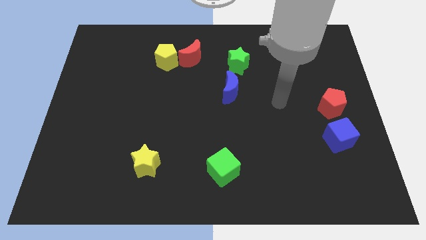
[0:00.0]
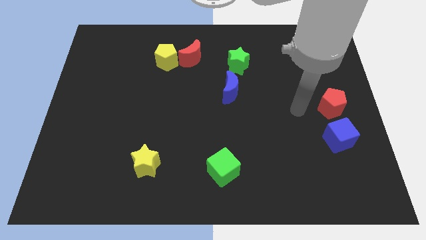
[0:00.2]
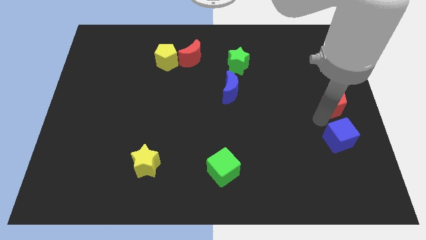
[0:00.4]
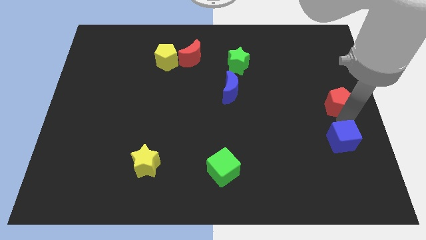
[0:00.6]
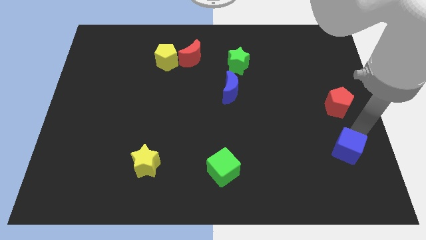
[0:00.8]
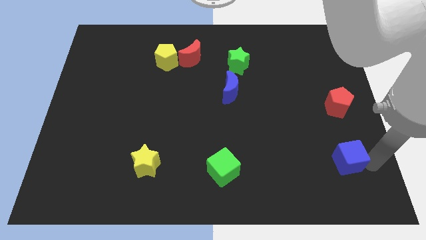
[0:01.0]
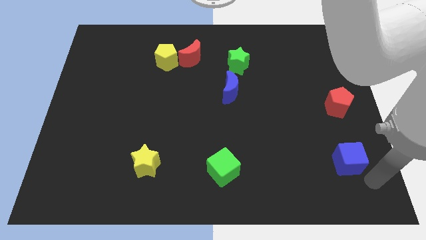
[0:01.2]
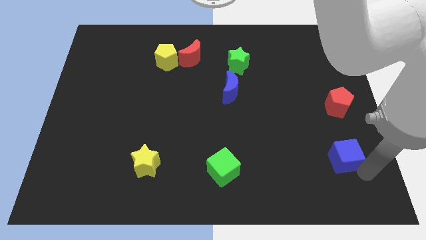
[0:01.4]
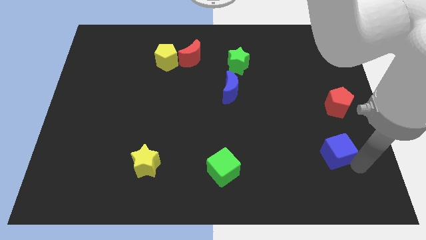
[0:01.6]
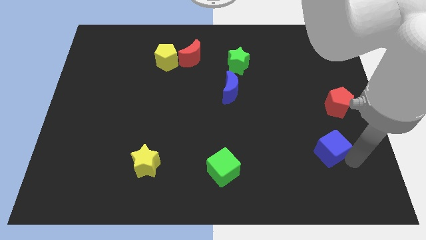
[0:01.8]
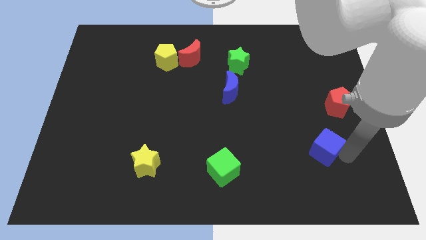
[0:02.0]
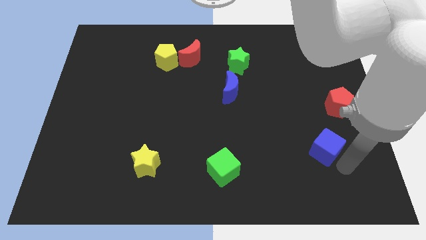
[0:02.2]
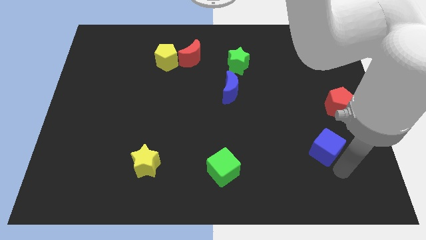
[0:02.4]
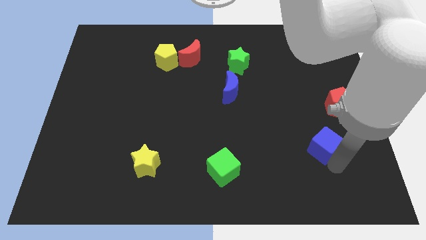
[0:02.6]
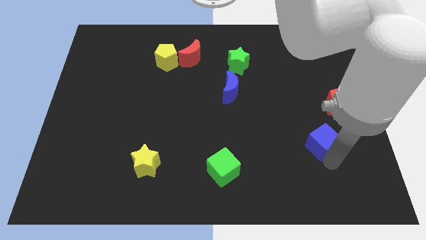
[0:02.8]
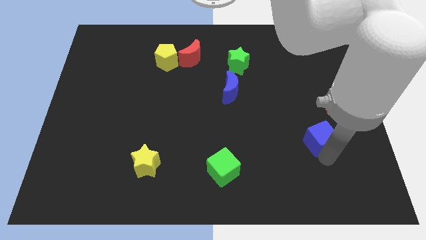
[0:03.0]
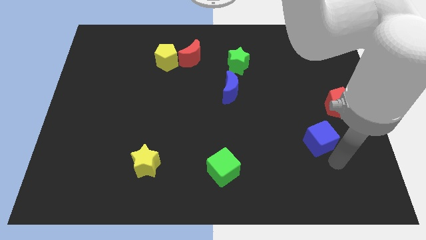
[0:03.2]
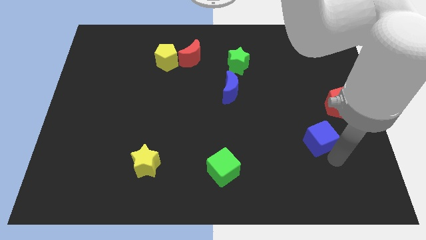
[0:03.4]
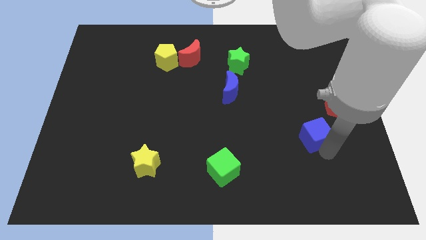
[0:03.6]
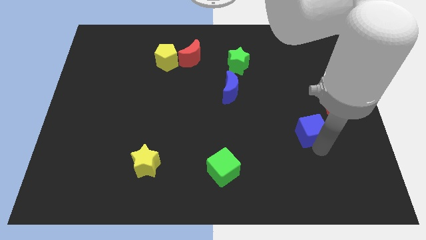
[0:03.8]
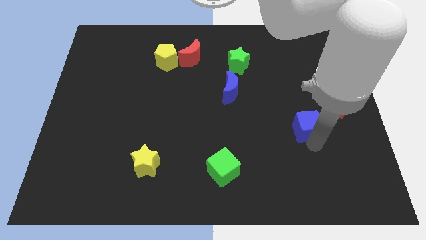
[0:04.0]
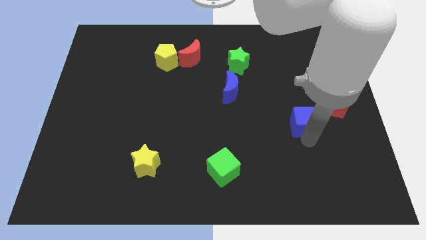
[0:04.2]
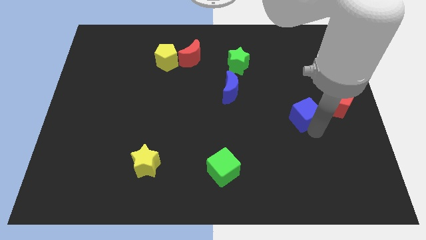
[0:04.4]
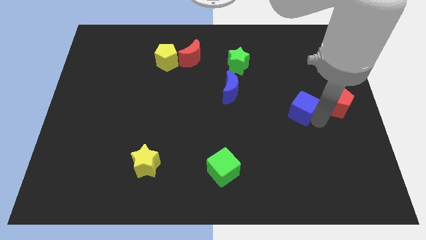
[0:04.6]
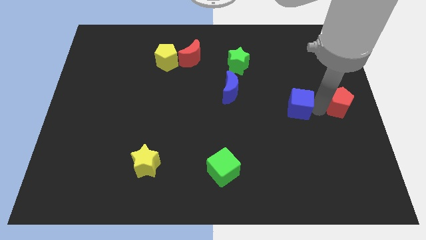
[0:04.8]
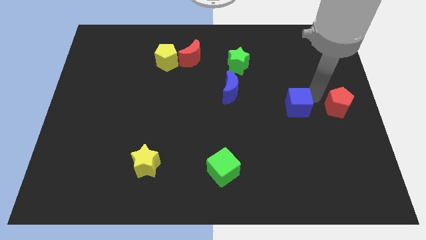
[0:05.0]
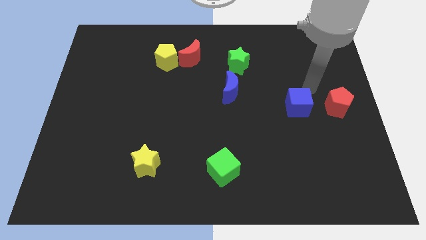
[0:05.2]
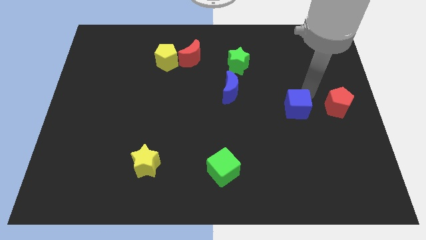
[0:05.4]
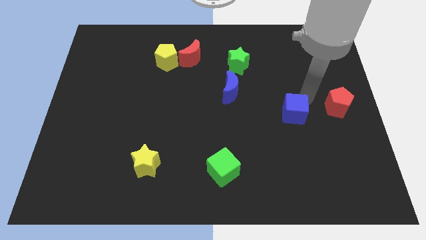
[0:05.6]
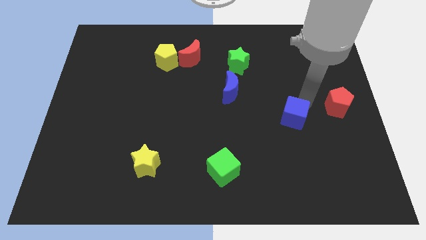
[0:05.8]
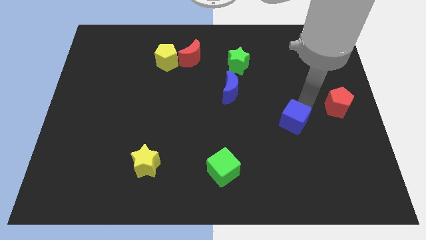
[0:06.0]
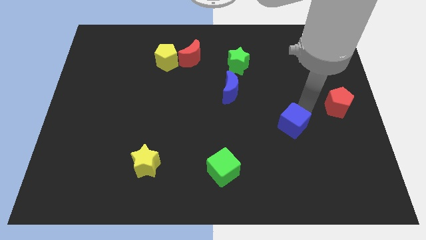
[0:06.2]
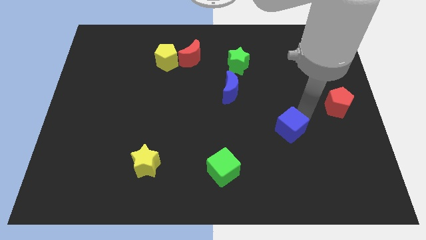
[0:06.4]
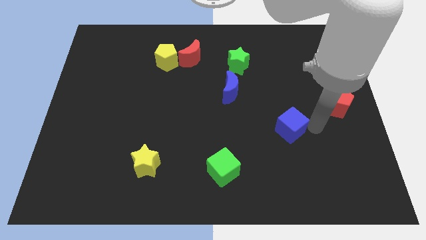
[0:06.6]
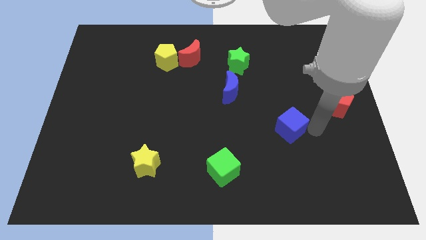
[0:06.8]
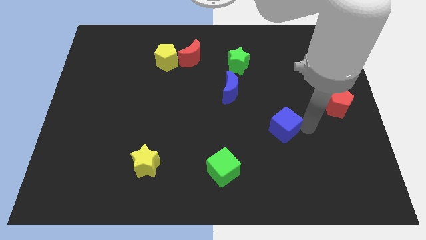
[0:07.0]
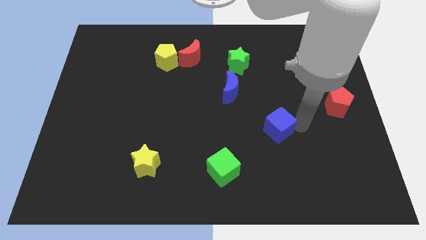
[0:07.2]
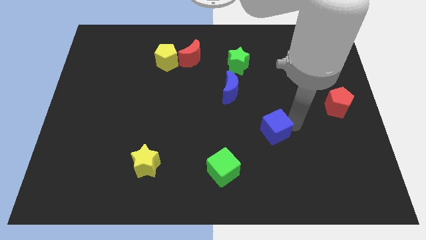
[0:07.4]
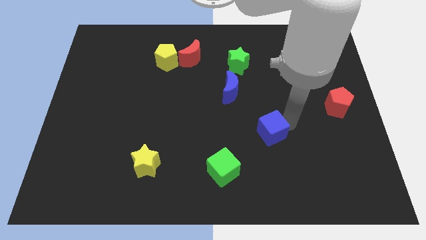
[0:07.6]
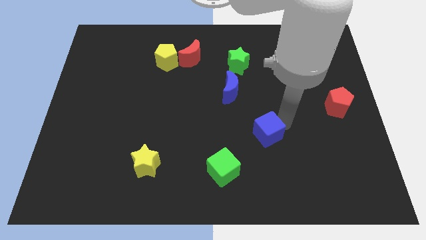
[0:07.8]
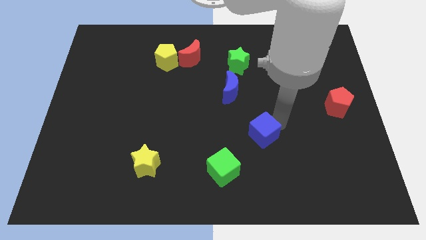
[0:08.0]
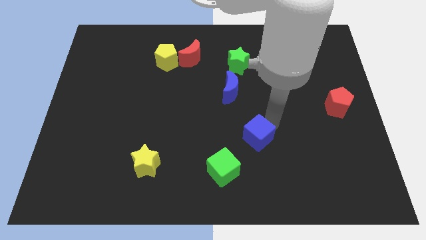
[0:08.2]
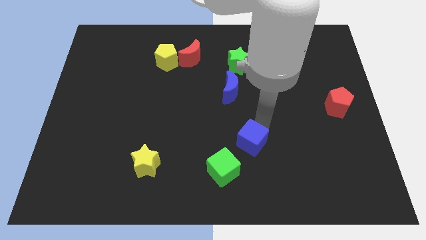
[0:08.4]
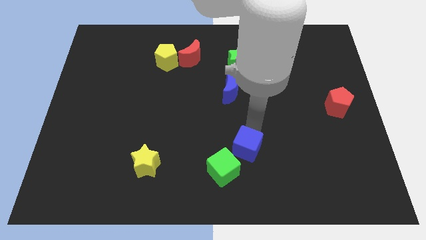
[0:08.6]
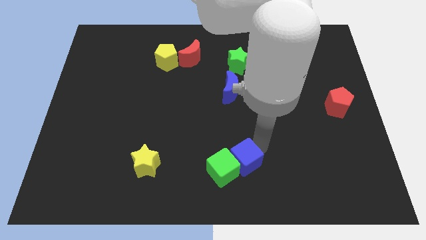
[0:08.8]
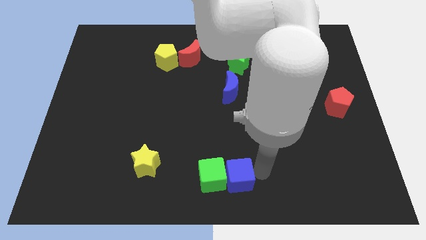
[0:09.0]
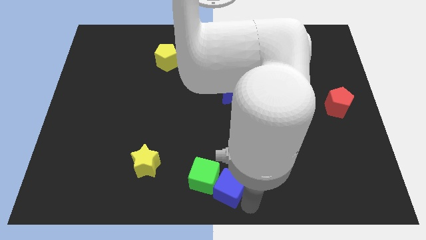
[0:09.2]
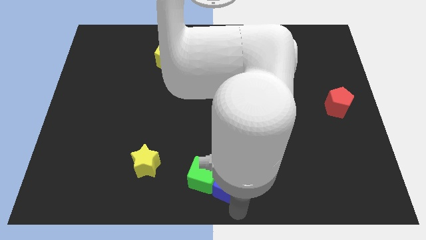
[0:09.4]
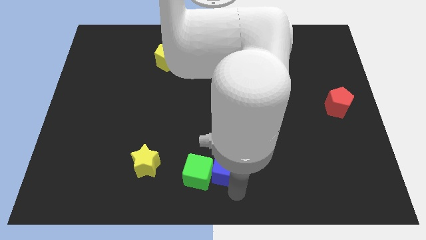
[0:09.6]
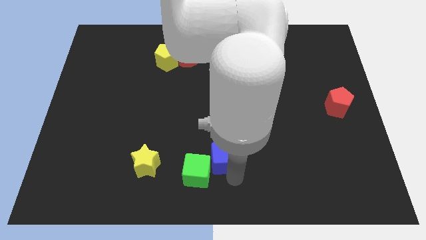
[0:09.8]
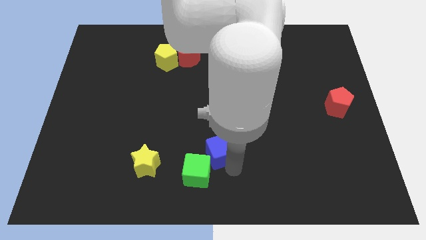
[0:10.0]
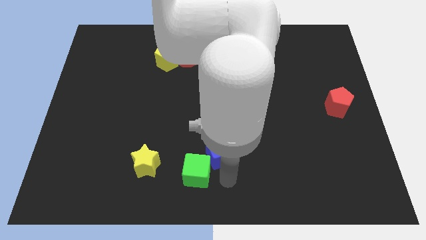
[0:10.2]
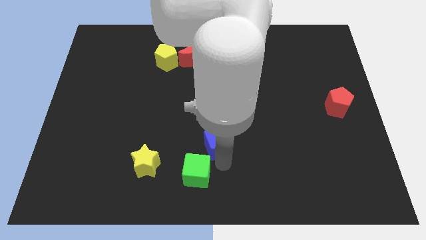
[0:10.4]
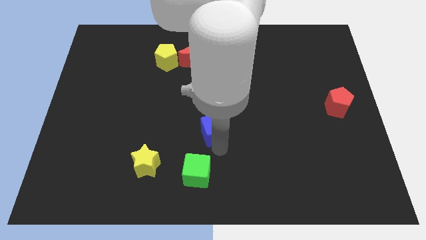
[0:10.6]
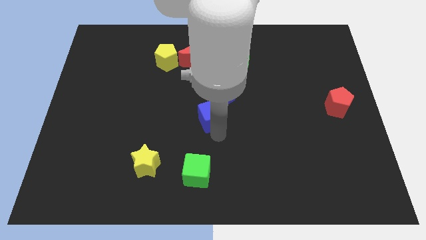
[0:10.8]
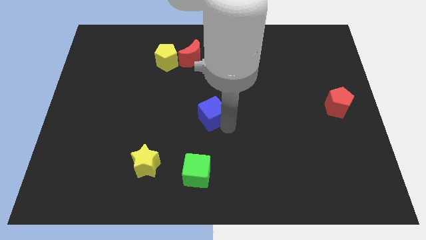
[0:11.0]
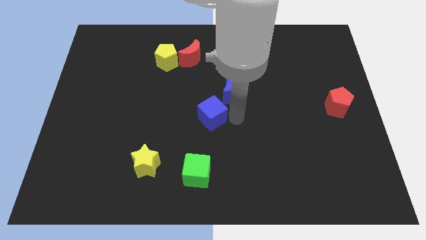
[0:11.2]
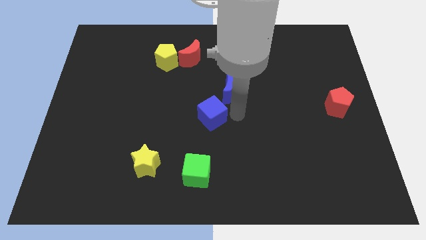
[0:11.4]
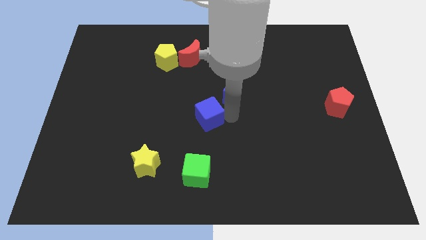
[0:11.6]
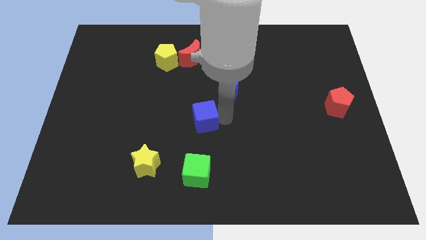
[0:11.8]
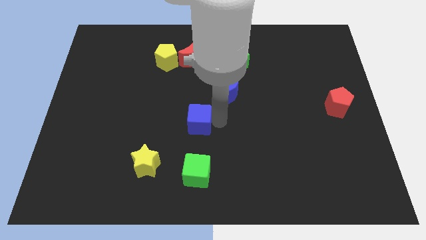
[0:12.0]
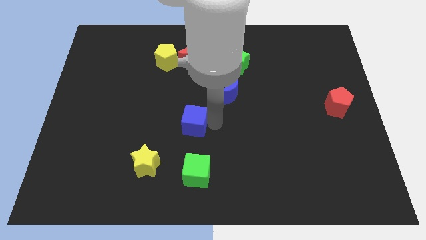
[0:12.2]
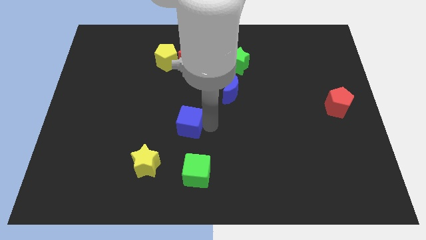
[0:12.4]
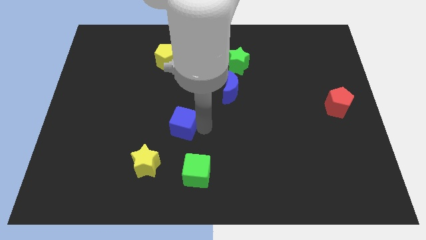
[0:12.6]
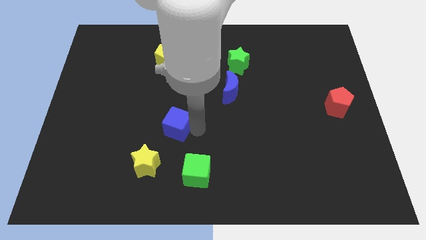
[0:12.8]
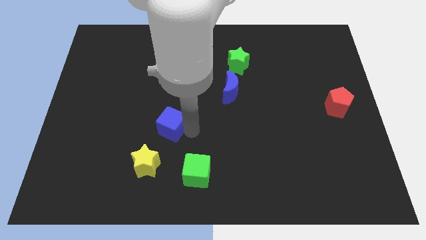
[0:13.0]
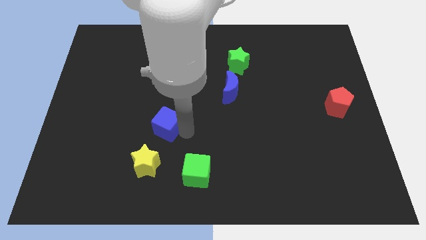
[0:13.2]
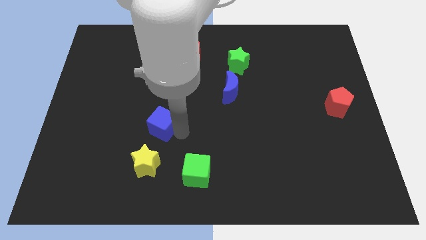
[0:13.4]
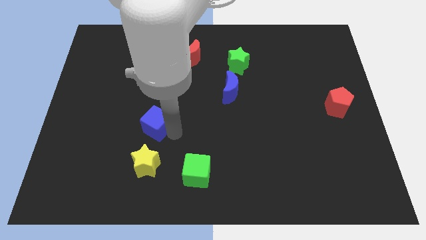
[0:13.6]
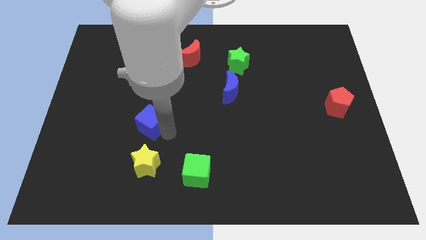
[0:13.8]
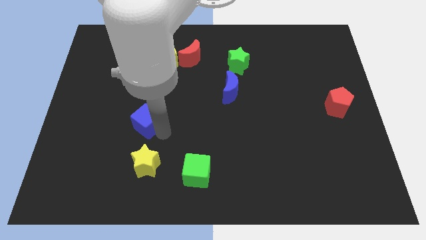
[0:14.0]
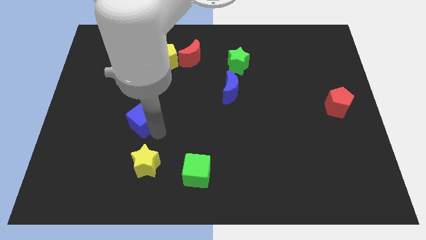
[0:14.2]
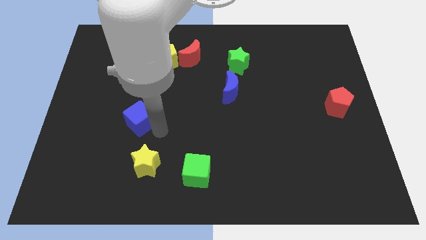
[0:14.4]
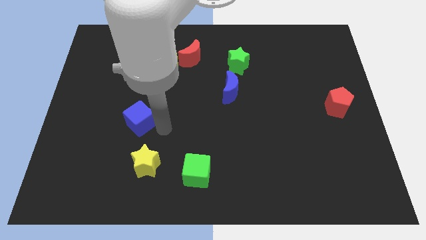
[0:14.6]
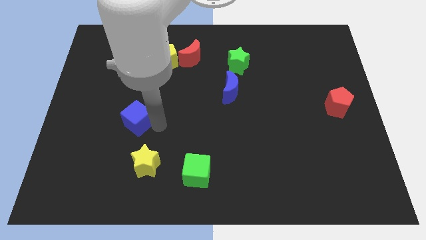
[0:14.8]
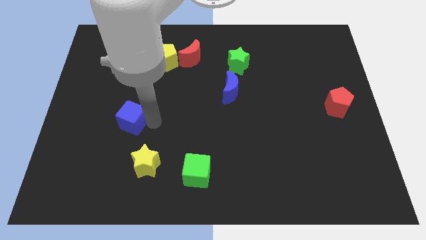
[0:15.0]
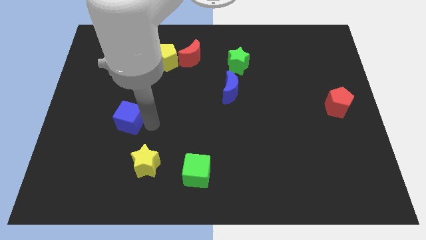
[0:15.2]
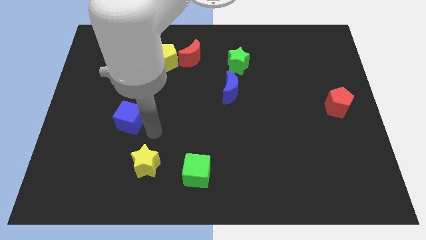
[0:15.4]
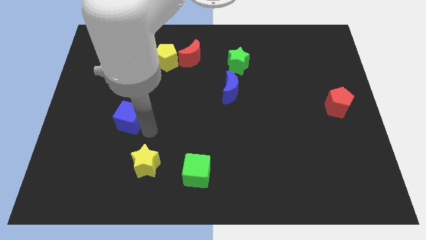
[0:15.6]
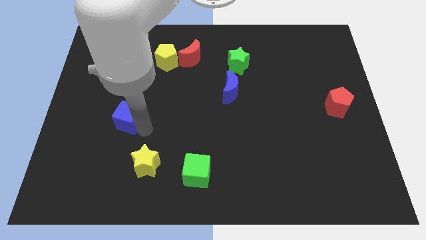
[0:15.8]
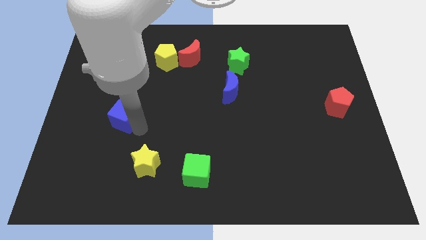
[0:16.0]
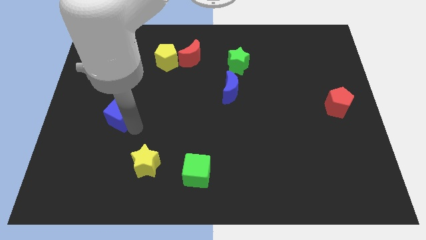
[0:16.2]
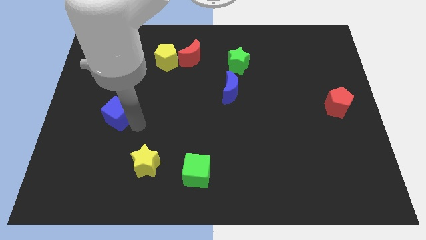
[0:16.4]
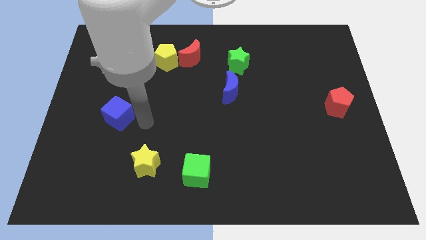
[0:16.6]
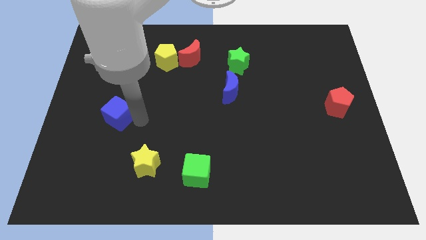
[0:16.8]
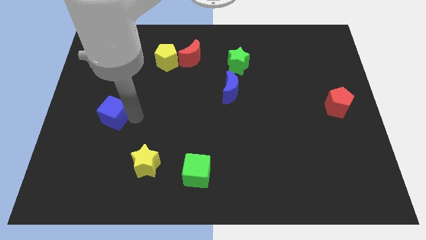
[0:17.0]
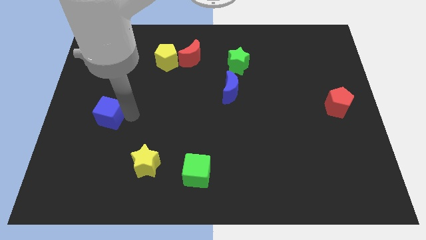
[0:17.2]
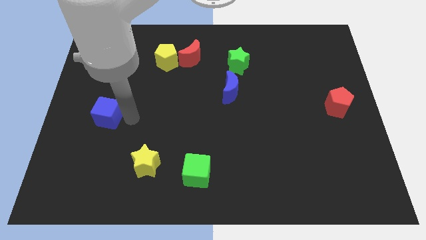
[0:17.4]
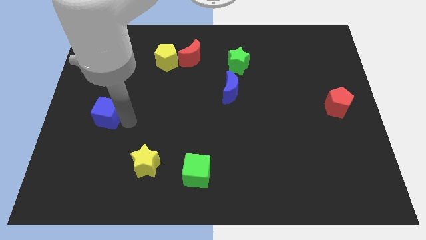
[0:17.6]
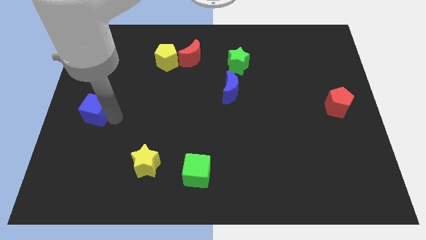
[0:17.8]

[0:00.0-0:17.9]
move the blue cube to the center left
